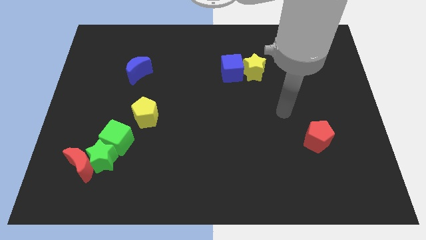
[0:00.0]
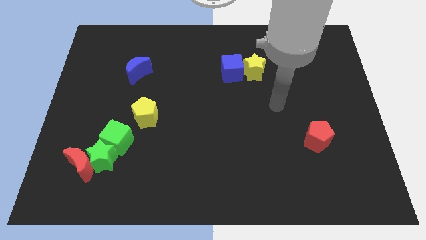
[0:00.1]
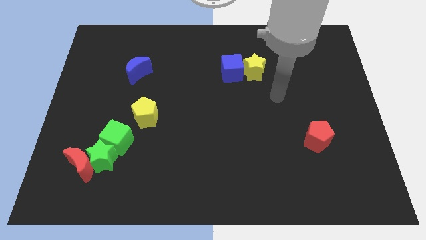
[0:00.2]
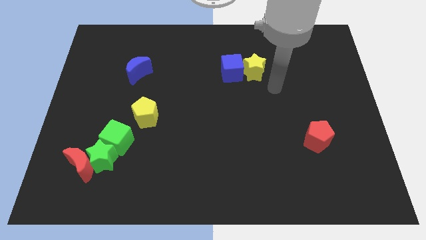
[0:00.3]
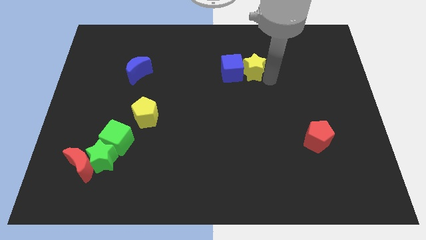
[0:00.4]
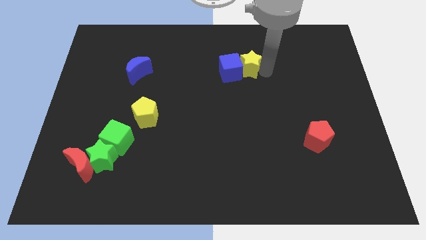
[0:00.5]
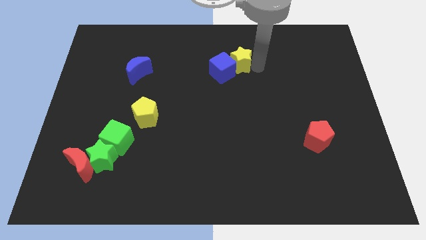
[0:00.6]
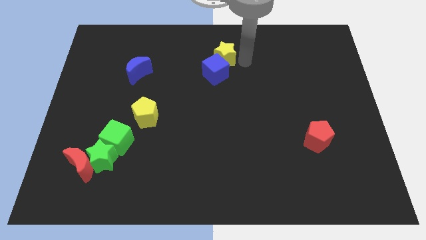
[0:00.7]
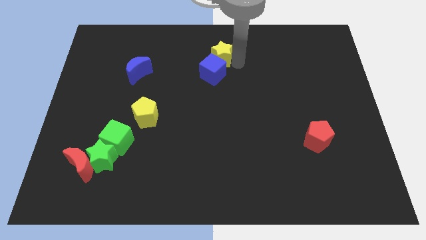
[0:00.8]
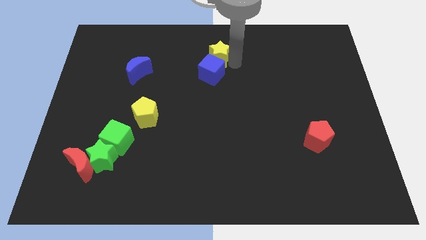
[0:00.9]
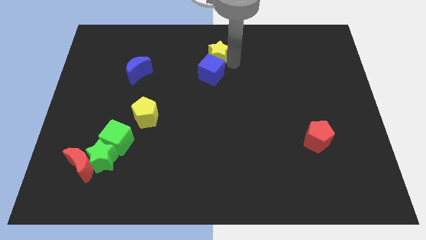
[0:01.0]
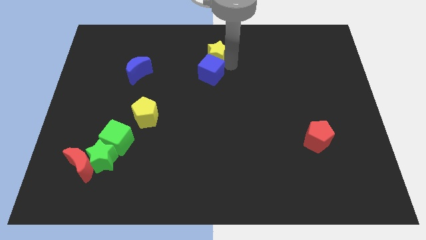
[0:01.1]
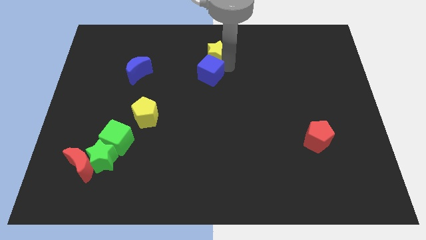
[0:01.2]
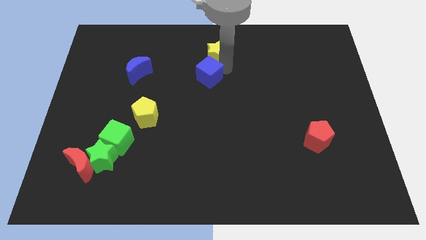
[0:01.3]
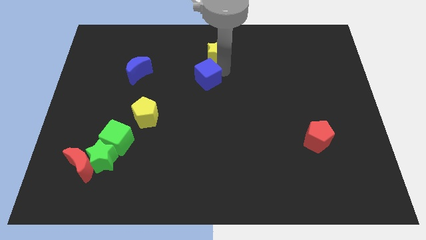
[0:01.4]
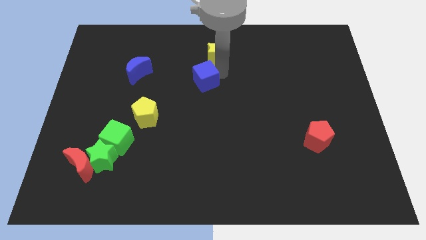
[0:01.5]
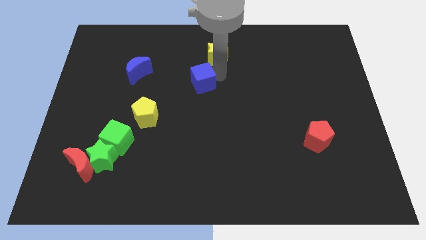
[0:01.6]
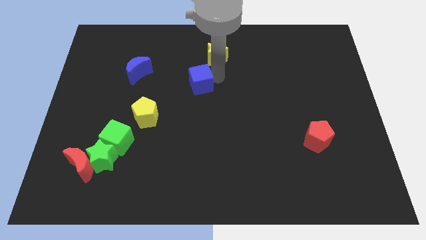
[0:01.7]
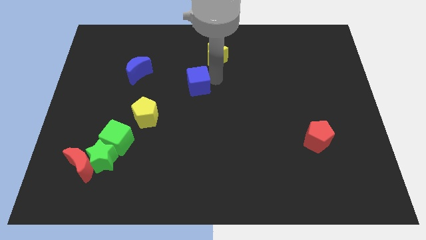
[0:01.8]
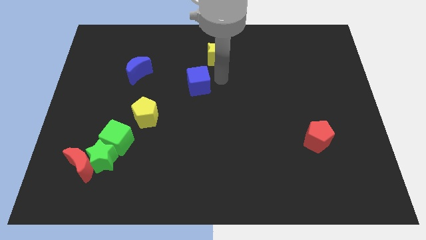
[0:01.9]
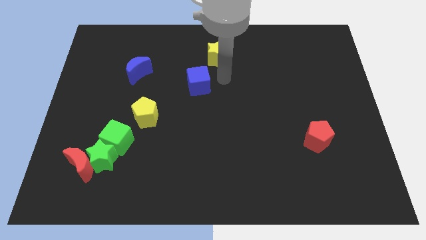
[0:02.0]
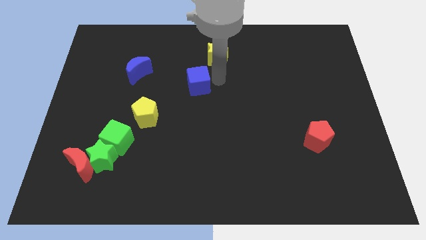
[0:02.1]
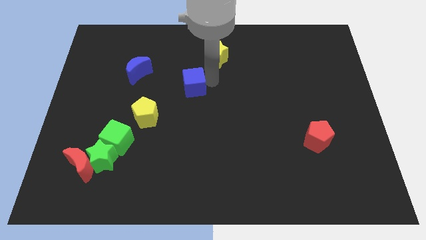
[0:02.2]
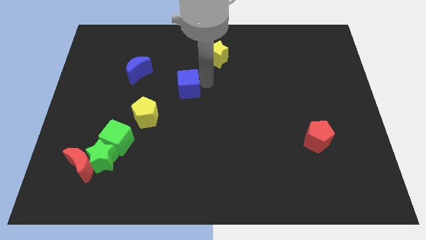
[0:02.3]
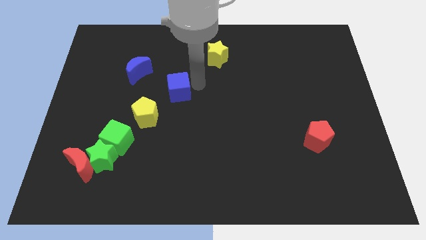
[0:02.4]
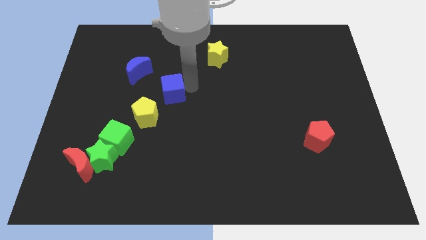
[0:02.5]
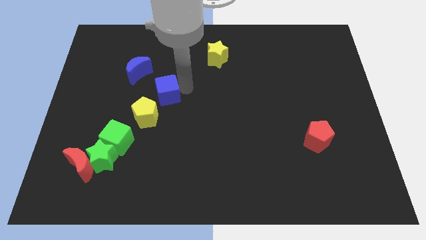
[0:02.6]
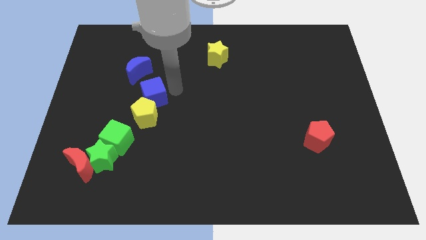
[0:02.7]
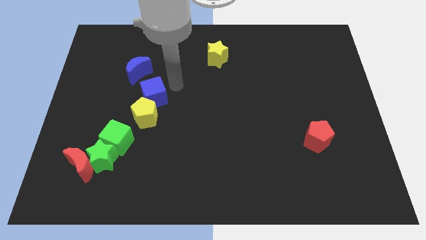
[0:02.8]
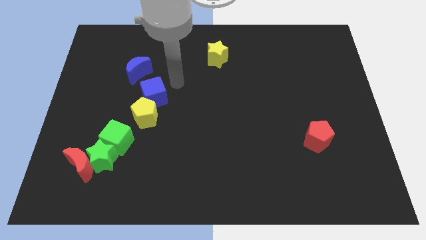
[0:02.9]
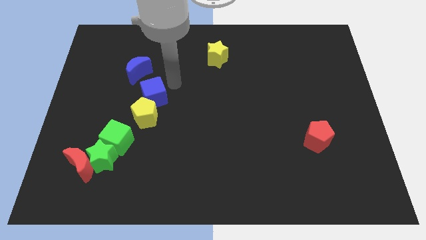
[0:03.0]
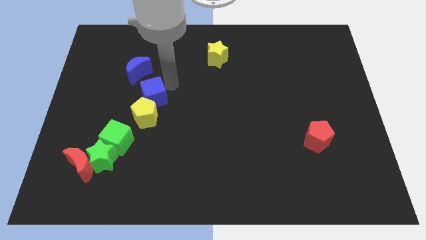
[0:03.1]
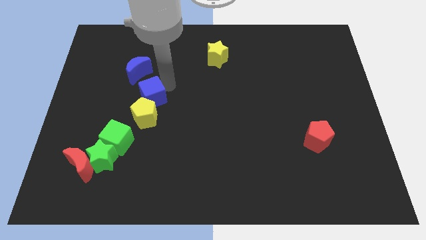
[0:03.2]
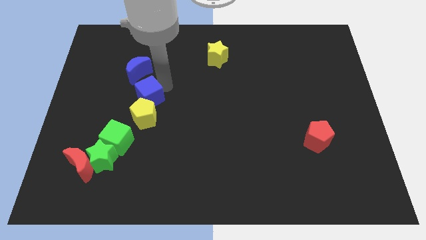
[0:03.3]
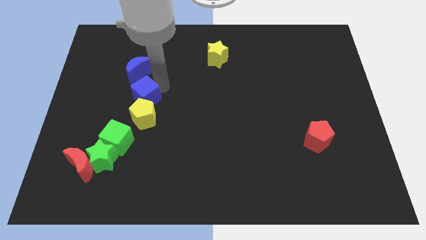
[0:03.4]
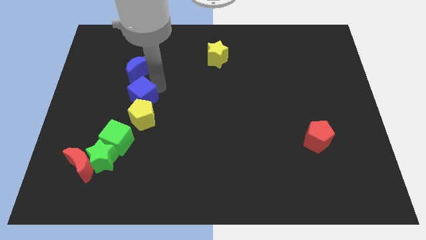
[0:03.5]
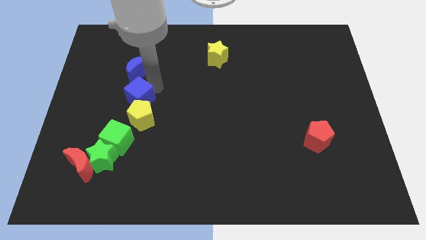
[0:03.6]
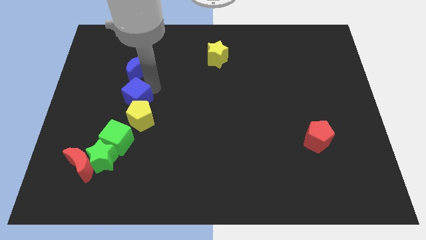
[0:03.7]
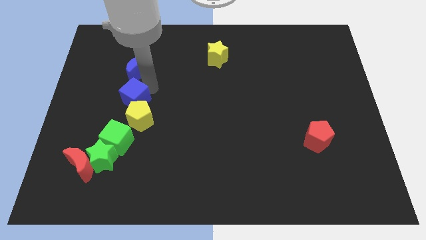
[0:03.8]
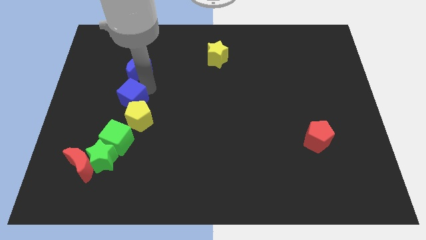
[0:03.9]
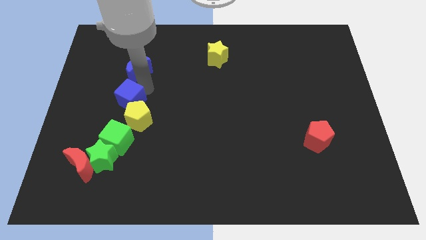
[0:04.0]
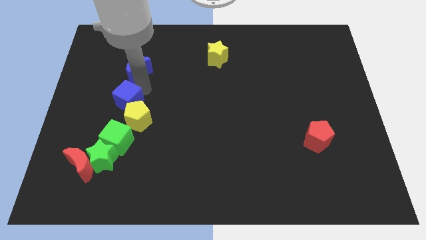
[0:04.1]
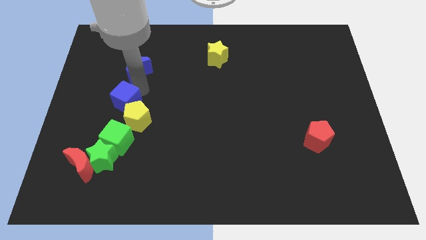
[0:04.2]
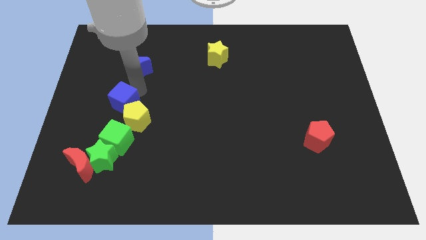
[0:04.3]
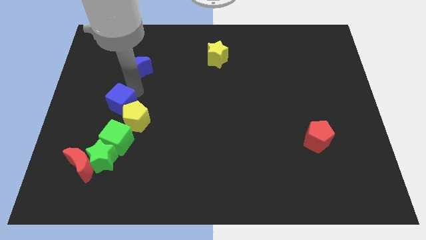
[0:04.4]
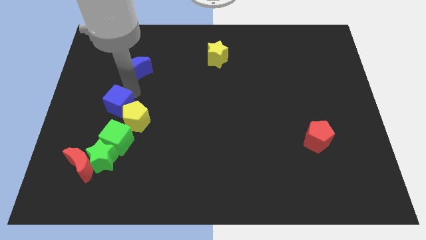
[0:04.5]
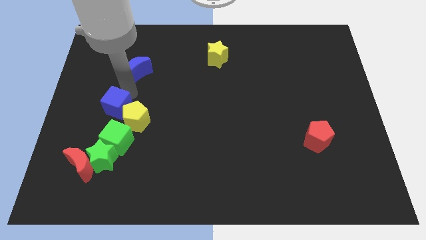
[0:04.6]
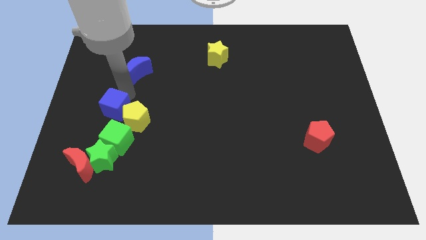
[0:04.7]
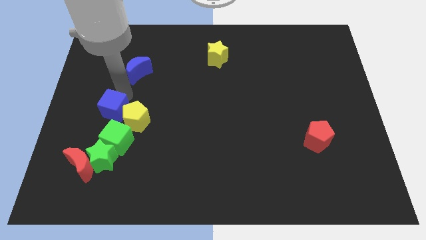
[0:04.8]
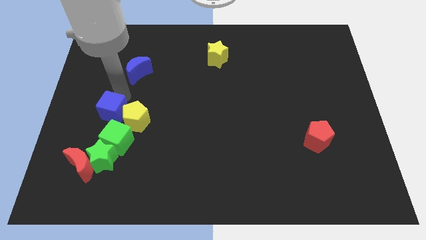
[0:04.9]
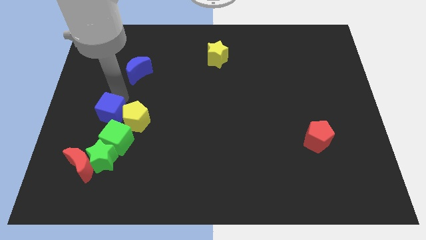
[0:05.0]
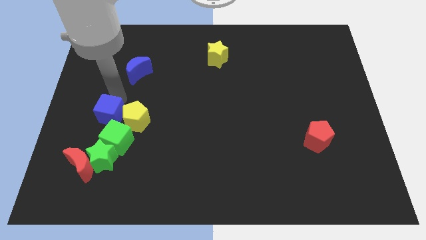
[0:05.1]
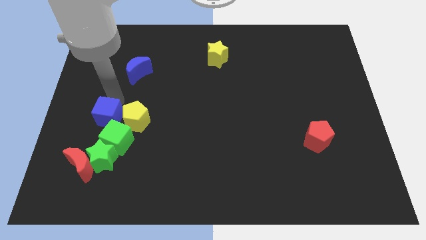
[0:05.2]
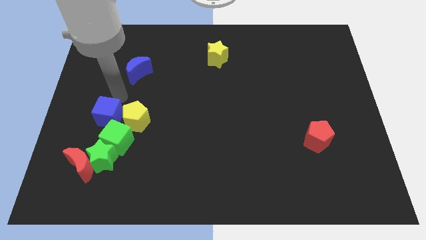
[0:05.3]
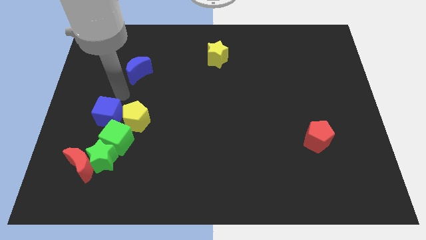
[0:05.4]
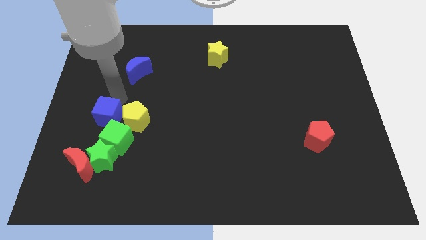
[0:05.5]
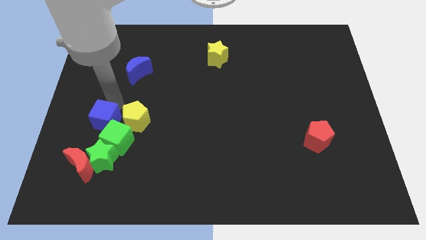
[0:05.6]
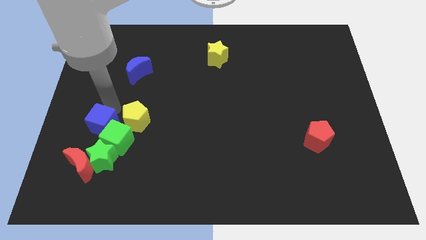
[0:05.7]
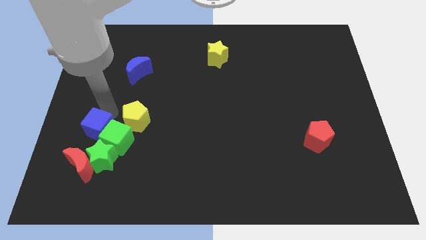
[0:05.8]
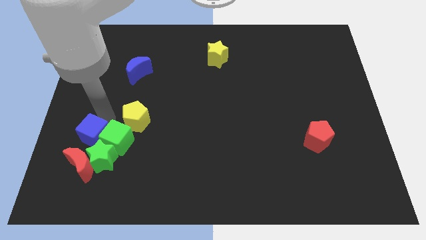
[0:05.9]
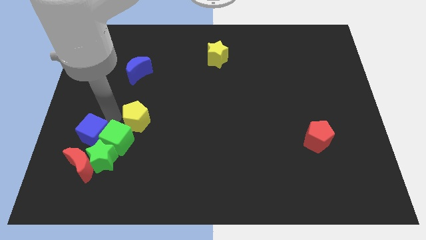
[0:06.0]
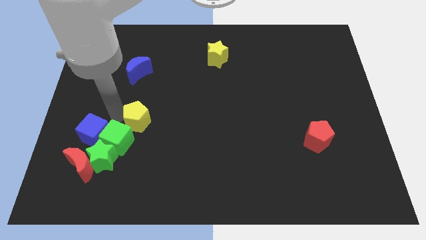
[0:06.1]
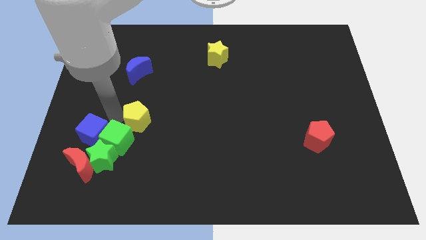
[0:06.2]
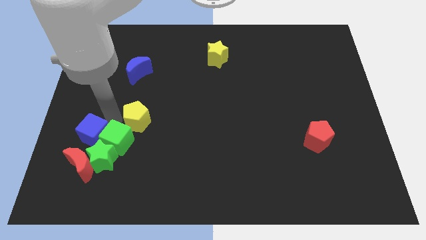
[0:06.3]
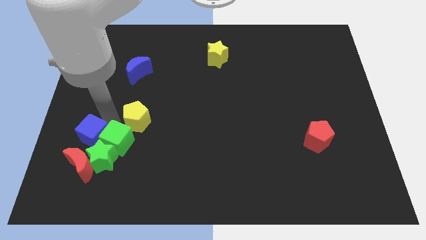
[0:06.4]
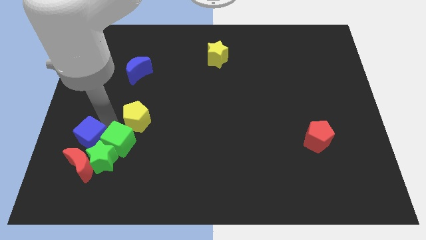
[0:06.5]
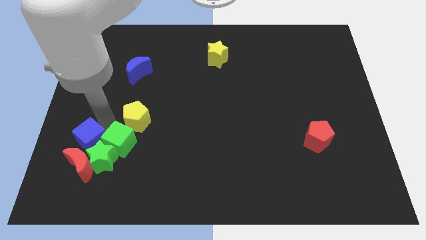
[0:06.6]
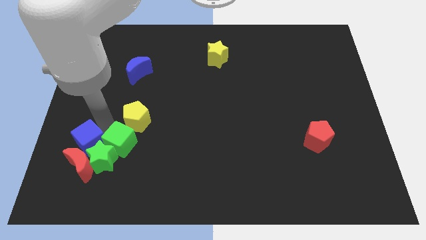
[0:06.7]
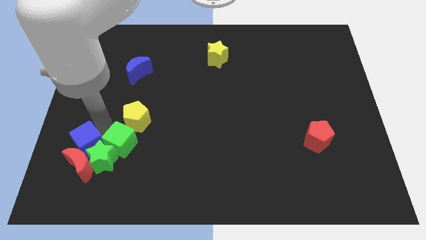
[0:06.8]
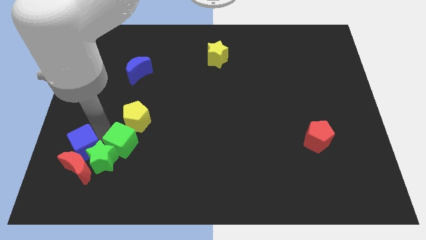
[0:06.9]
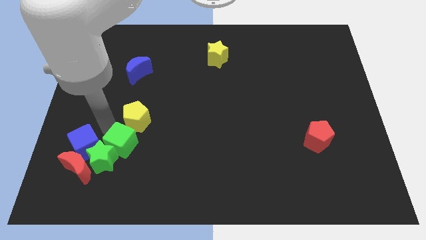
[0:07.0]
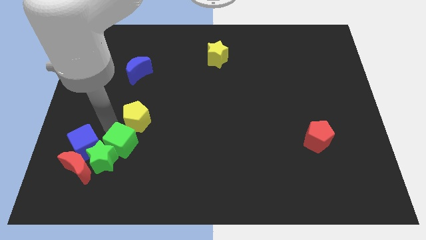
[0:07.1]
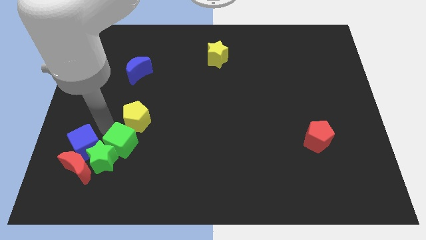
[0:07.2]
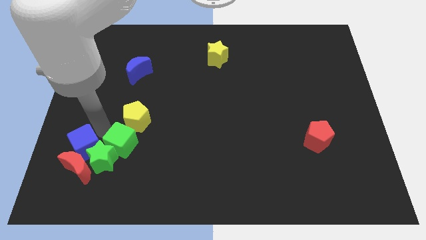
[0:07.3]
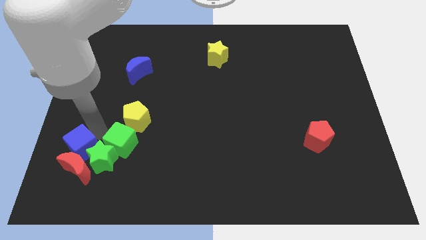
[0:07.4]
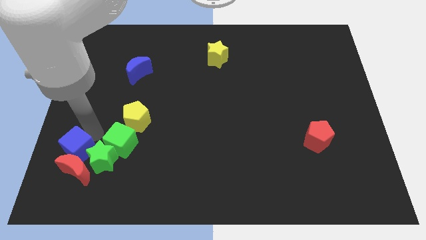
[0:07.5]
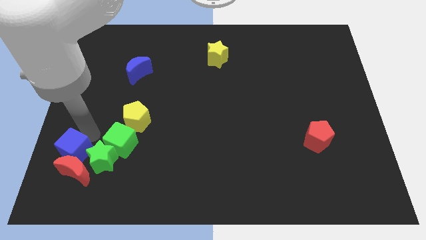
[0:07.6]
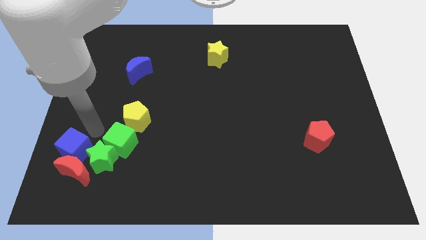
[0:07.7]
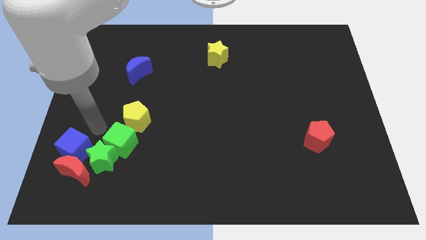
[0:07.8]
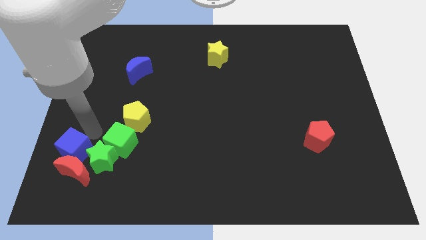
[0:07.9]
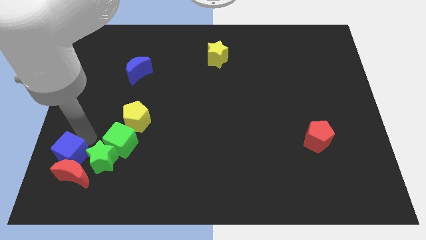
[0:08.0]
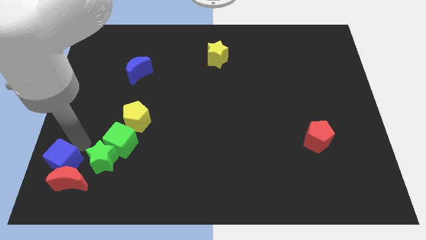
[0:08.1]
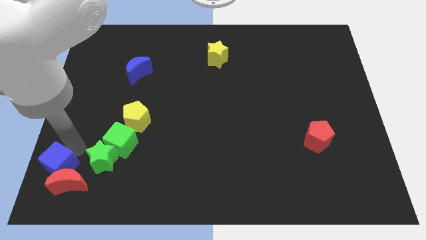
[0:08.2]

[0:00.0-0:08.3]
push the blue cube to the lower left corner
